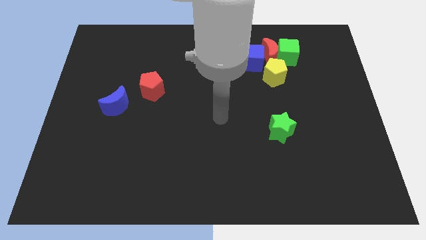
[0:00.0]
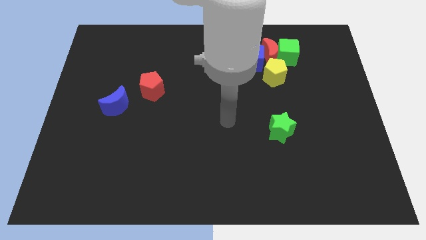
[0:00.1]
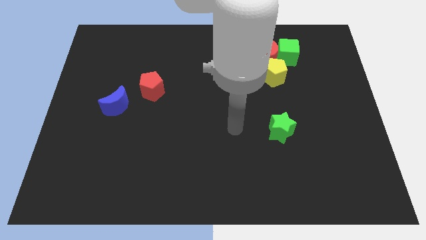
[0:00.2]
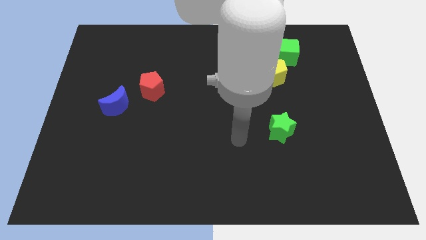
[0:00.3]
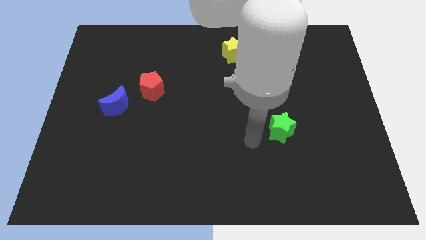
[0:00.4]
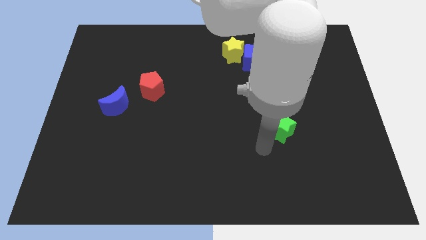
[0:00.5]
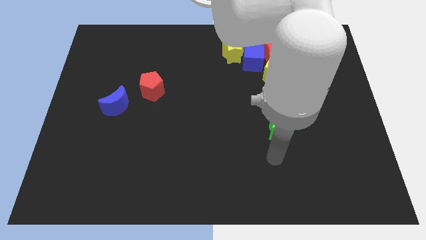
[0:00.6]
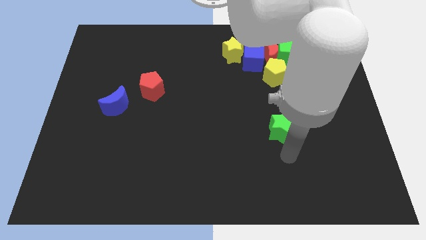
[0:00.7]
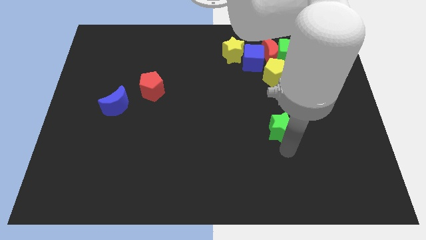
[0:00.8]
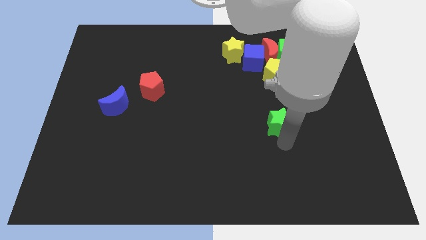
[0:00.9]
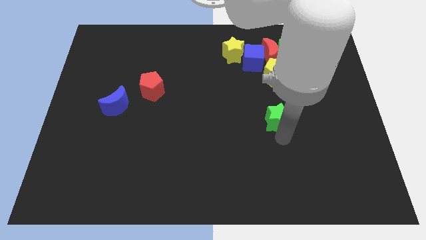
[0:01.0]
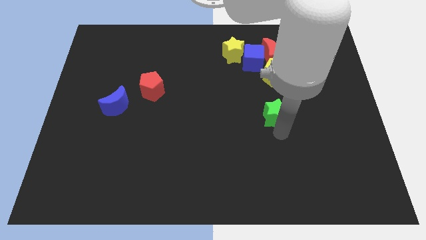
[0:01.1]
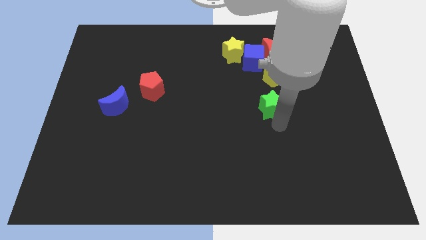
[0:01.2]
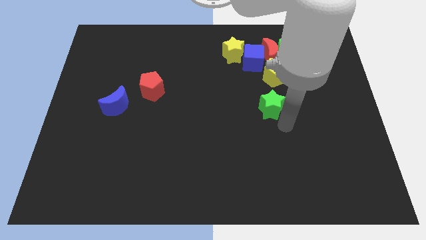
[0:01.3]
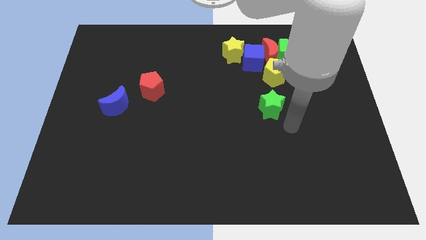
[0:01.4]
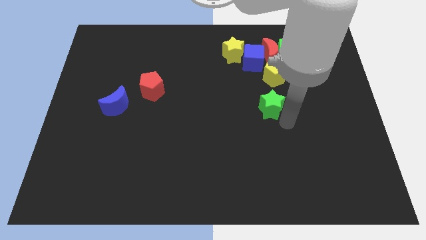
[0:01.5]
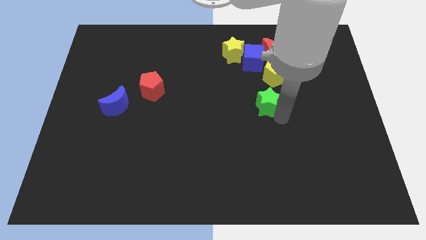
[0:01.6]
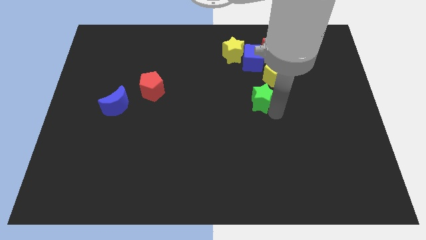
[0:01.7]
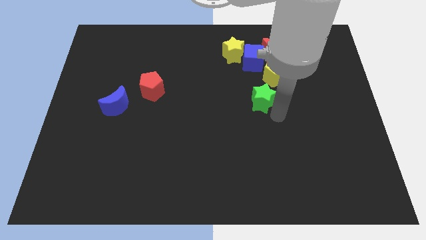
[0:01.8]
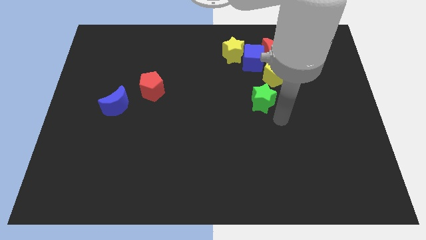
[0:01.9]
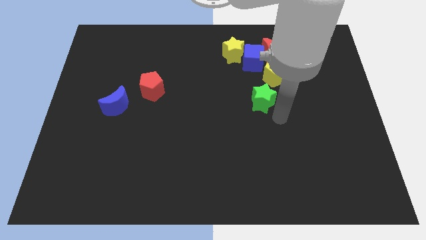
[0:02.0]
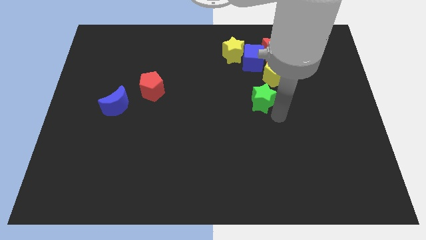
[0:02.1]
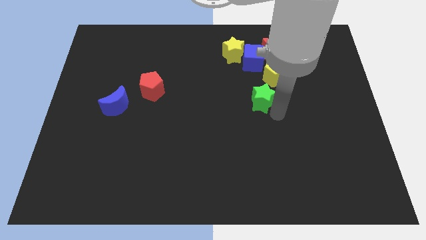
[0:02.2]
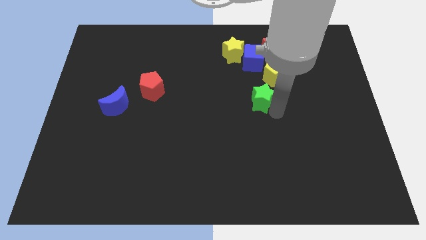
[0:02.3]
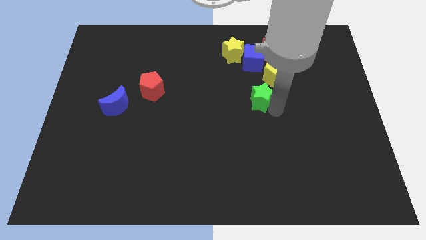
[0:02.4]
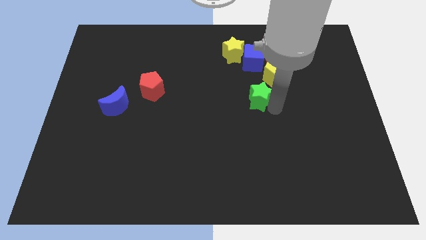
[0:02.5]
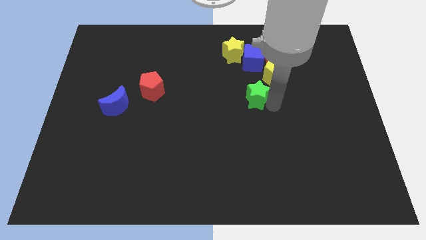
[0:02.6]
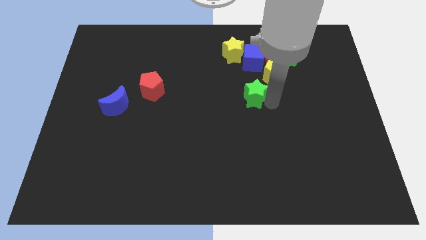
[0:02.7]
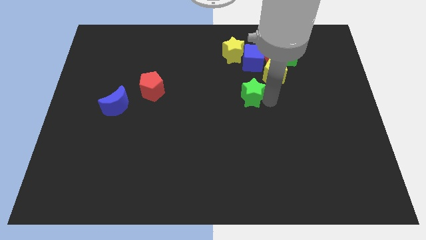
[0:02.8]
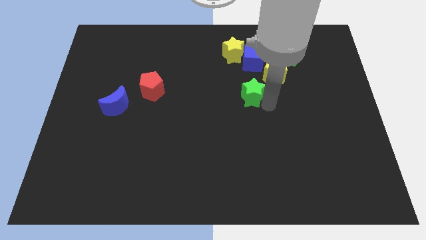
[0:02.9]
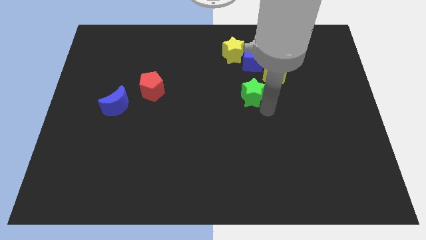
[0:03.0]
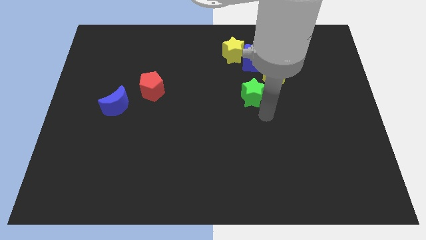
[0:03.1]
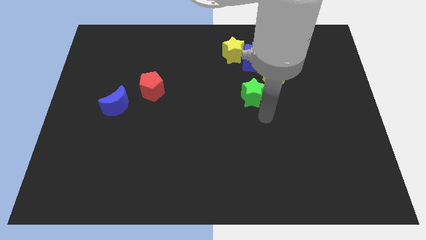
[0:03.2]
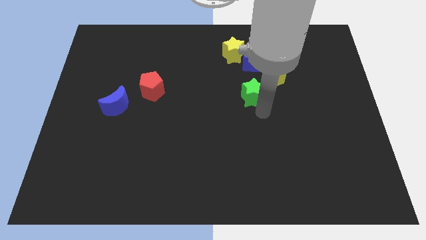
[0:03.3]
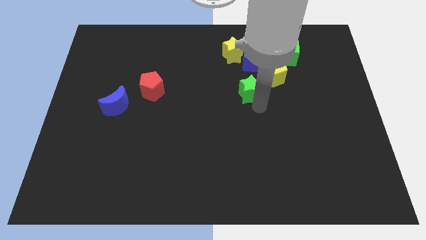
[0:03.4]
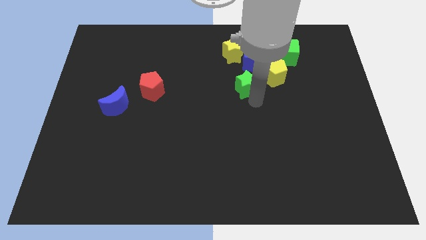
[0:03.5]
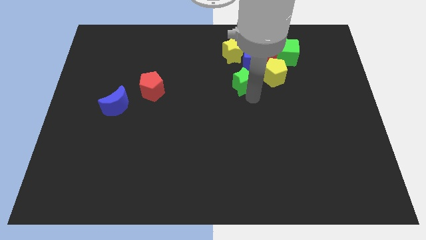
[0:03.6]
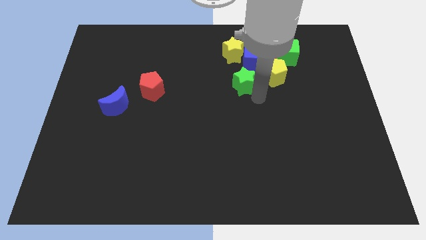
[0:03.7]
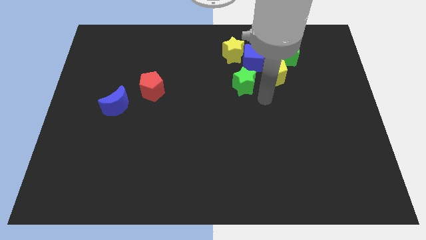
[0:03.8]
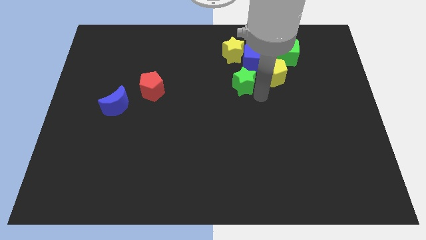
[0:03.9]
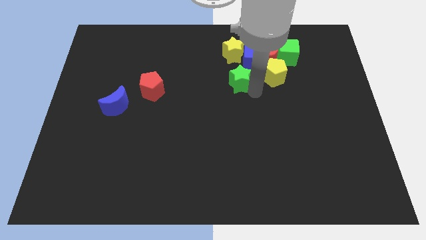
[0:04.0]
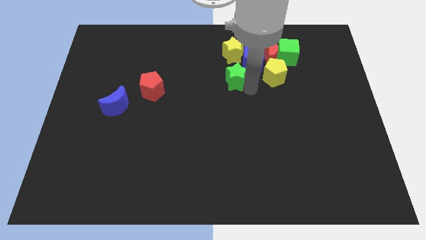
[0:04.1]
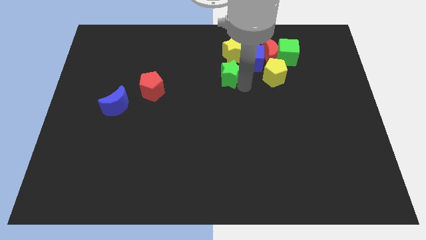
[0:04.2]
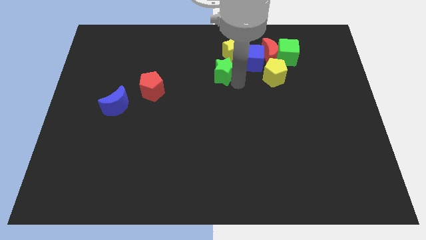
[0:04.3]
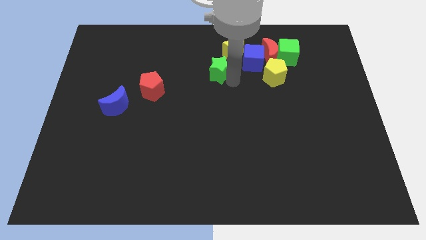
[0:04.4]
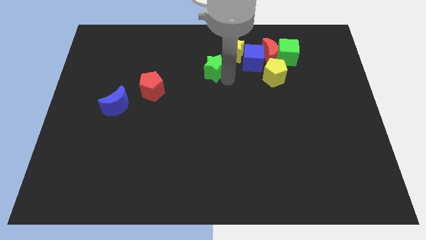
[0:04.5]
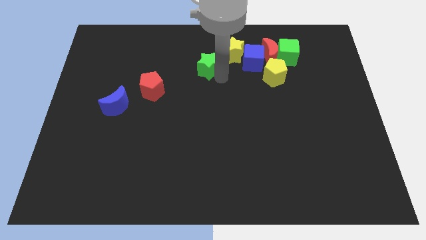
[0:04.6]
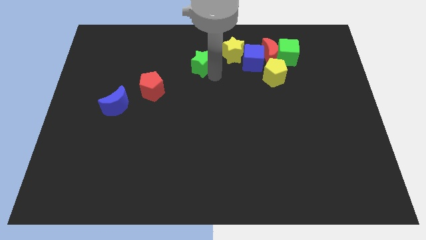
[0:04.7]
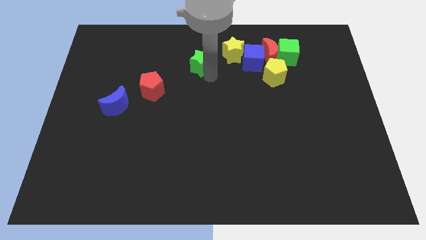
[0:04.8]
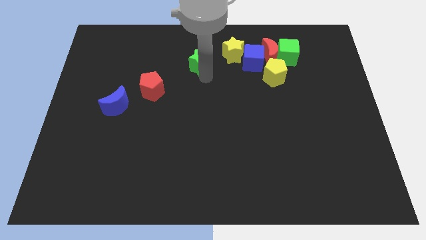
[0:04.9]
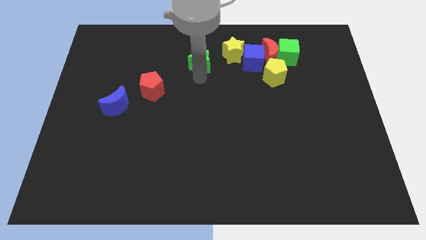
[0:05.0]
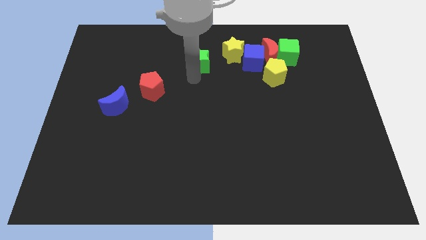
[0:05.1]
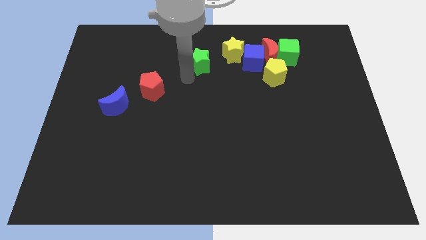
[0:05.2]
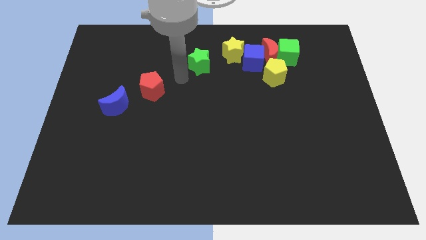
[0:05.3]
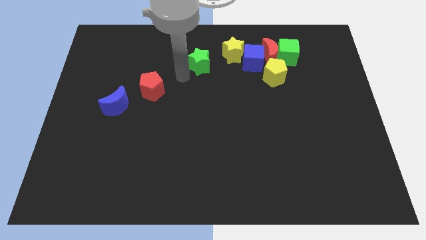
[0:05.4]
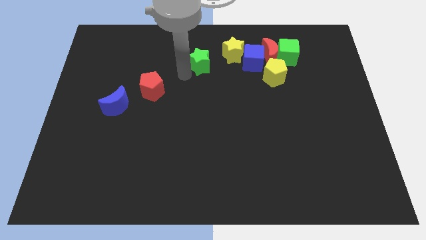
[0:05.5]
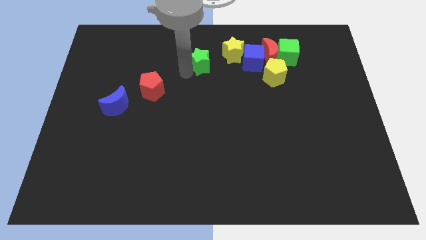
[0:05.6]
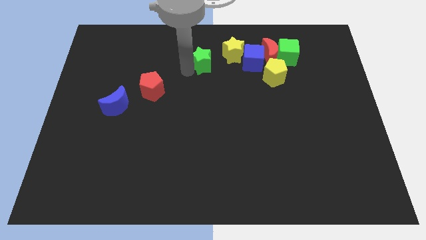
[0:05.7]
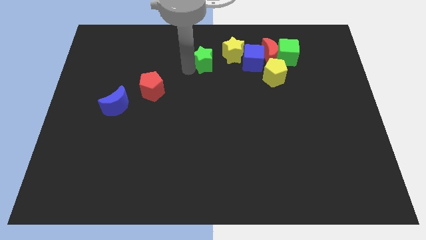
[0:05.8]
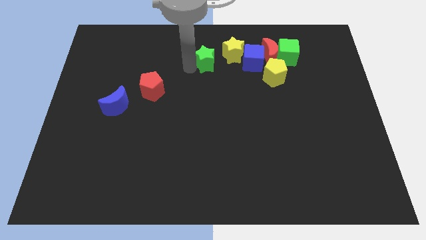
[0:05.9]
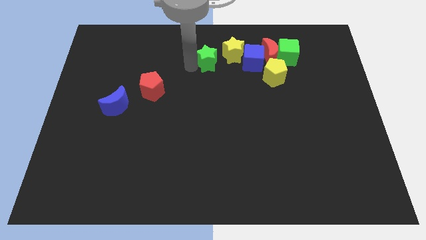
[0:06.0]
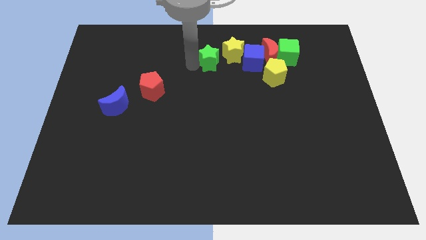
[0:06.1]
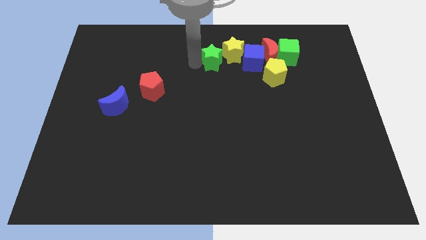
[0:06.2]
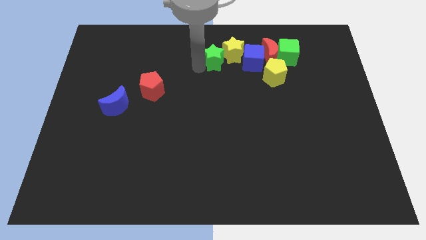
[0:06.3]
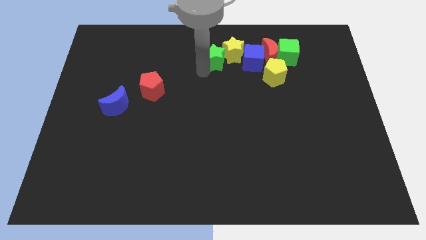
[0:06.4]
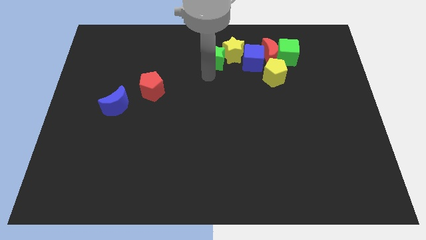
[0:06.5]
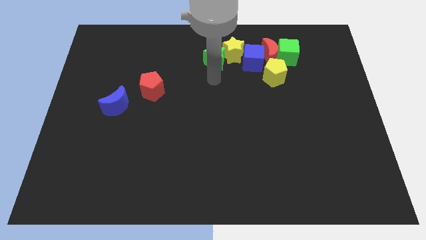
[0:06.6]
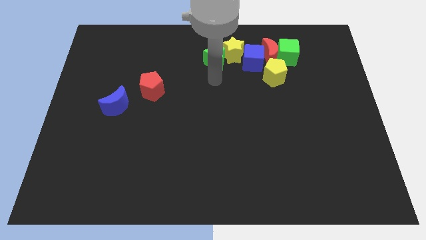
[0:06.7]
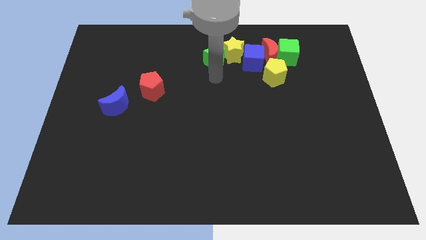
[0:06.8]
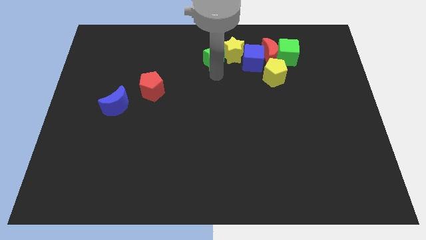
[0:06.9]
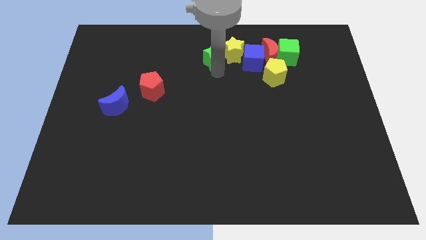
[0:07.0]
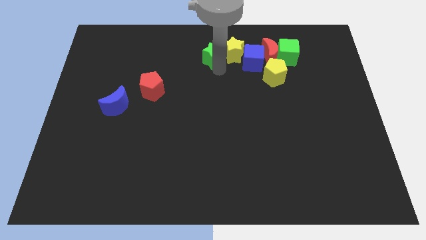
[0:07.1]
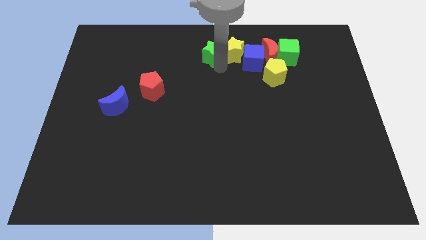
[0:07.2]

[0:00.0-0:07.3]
put the green star to the top
